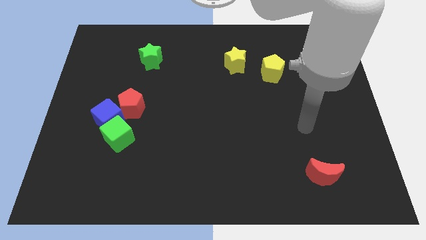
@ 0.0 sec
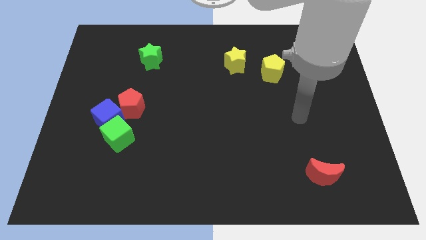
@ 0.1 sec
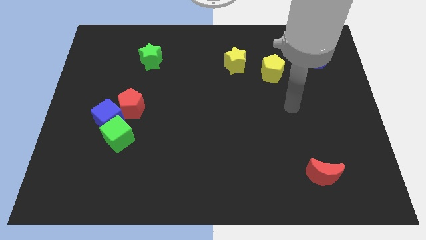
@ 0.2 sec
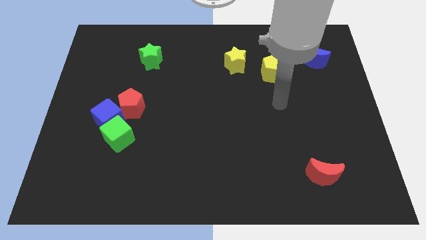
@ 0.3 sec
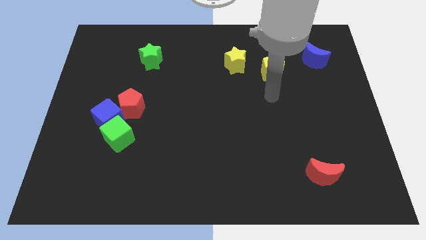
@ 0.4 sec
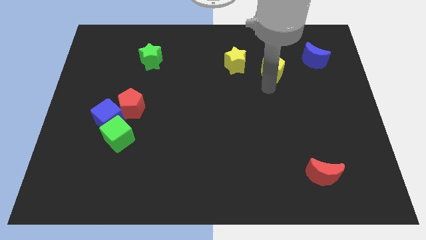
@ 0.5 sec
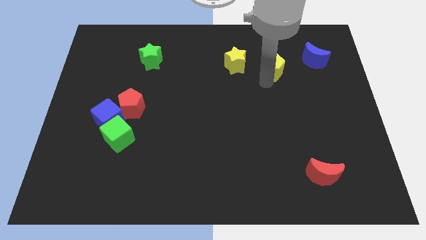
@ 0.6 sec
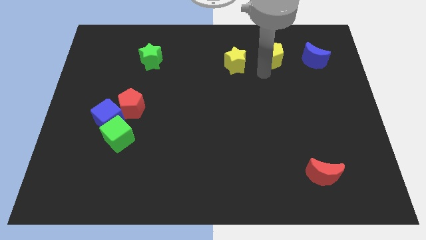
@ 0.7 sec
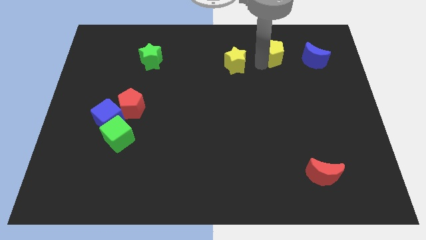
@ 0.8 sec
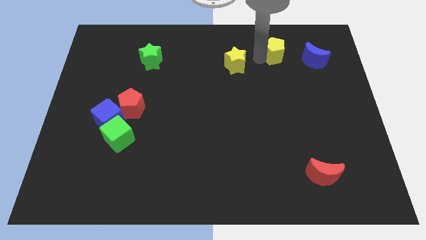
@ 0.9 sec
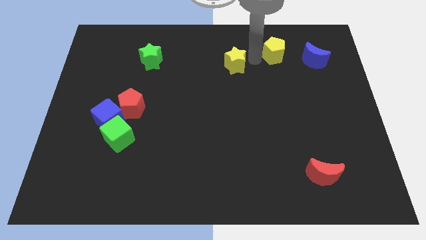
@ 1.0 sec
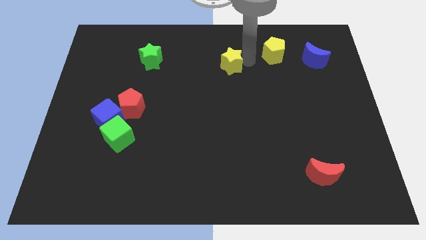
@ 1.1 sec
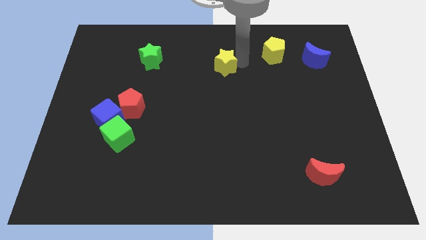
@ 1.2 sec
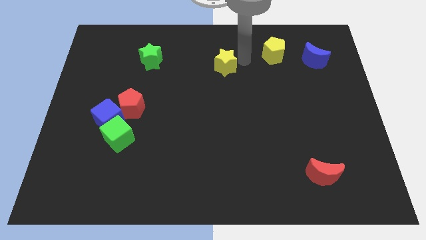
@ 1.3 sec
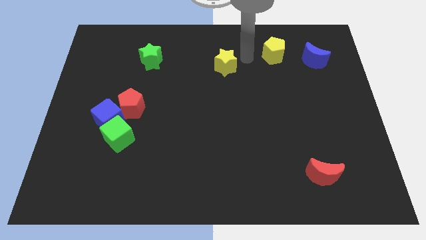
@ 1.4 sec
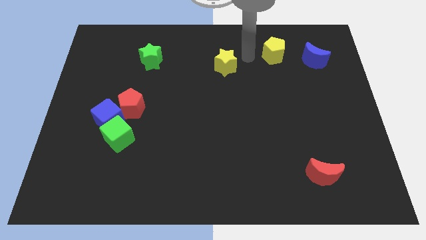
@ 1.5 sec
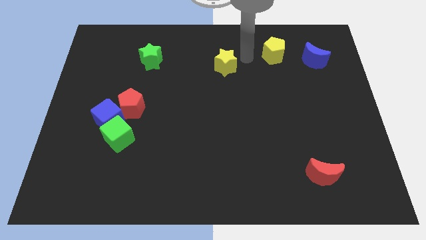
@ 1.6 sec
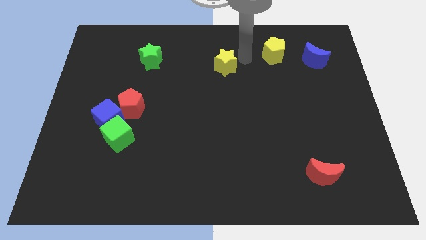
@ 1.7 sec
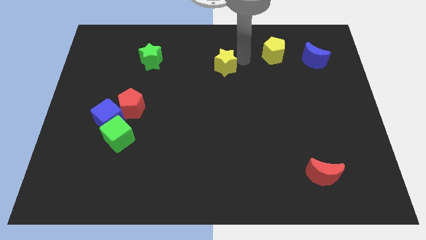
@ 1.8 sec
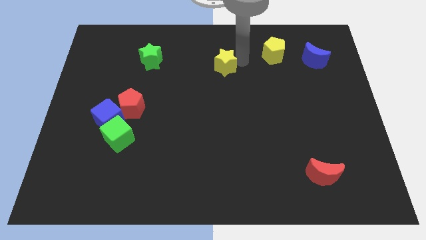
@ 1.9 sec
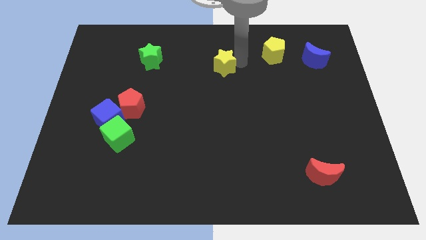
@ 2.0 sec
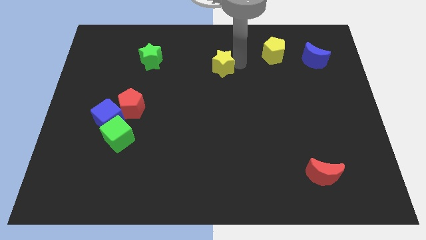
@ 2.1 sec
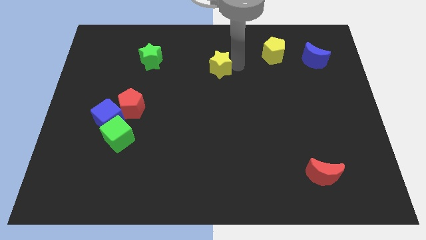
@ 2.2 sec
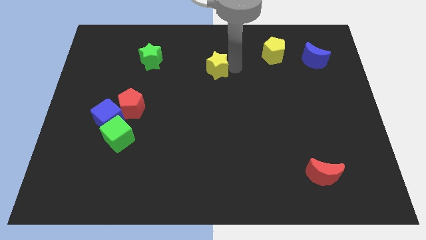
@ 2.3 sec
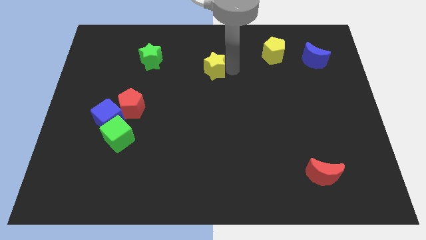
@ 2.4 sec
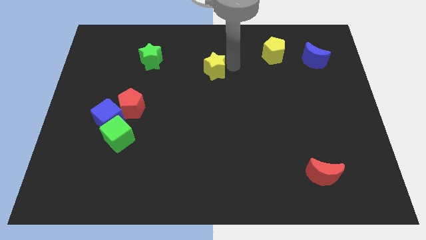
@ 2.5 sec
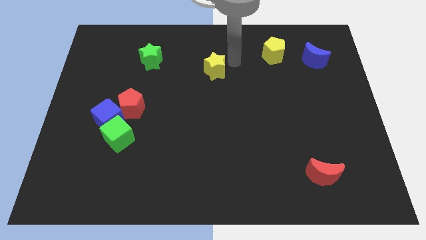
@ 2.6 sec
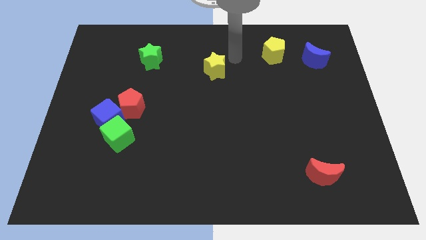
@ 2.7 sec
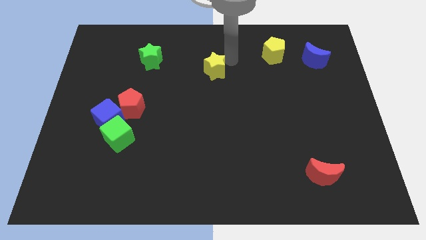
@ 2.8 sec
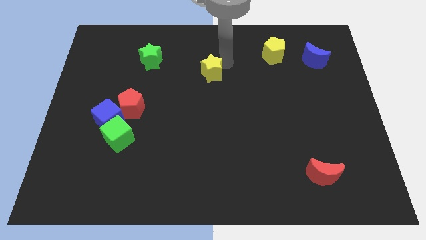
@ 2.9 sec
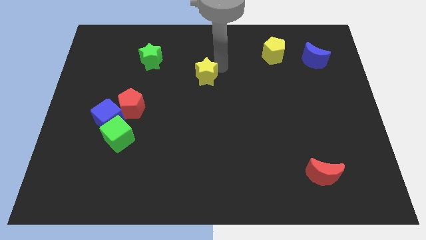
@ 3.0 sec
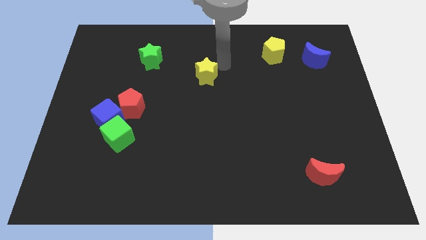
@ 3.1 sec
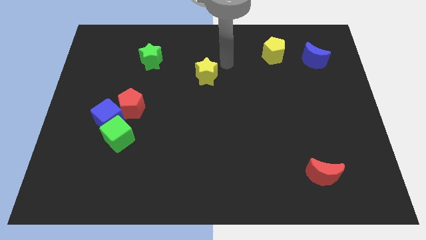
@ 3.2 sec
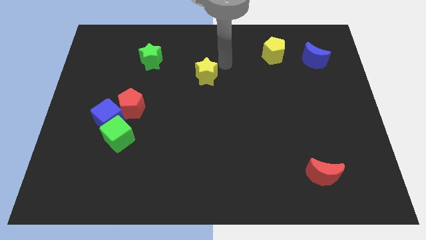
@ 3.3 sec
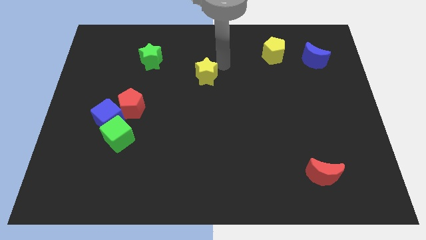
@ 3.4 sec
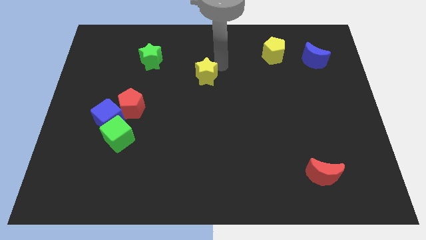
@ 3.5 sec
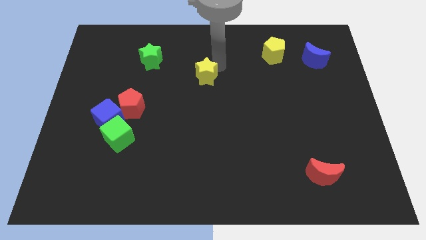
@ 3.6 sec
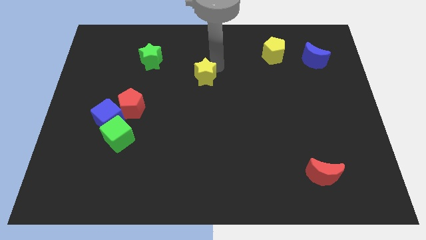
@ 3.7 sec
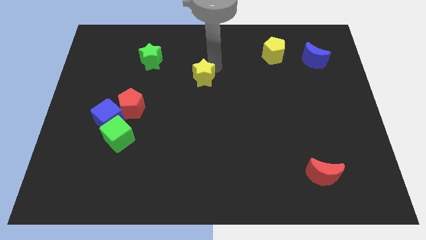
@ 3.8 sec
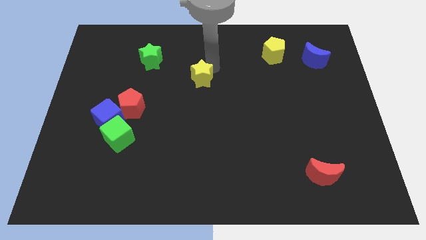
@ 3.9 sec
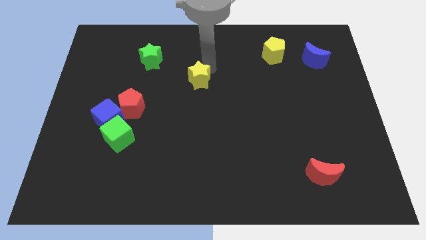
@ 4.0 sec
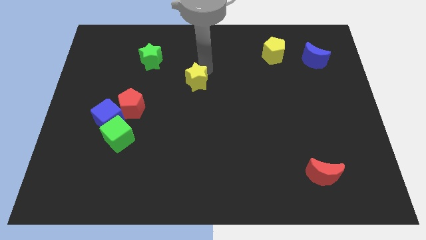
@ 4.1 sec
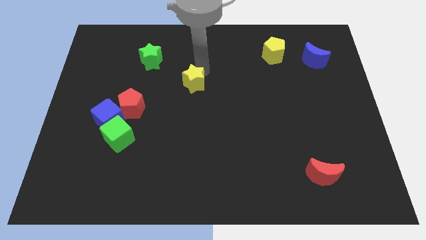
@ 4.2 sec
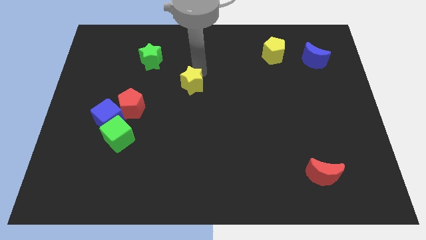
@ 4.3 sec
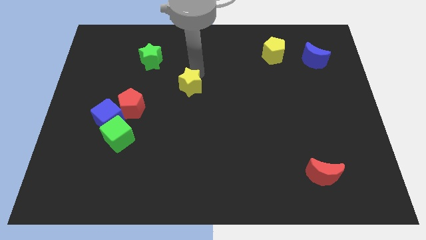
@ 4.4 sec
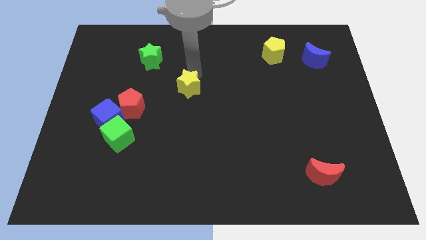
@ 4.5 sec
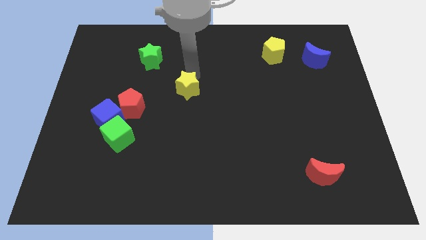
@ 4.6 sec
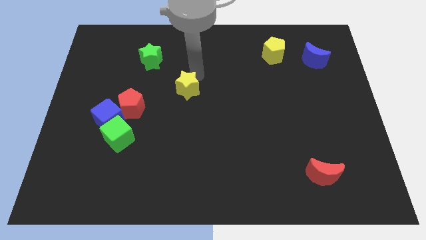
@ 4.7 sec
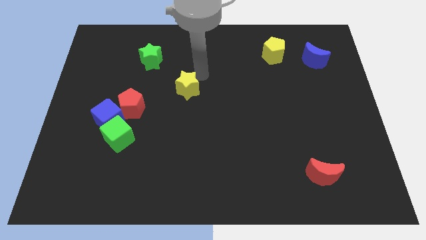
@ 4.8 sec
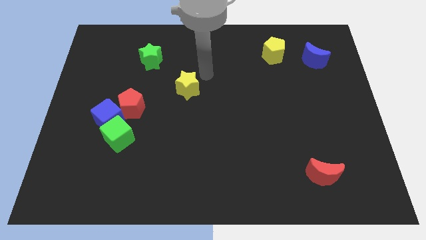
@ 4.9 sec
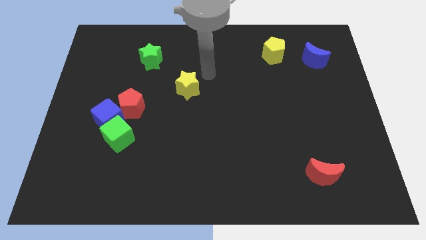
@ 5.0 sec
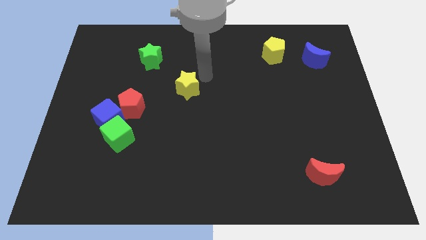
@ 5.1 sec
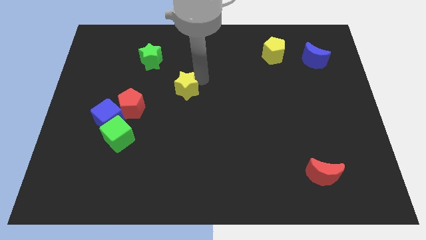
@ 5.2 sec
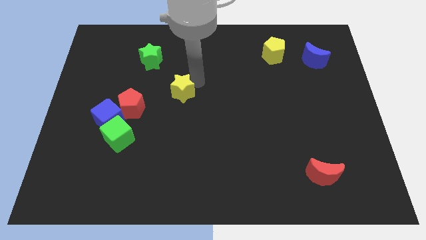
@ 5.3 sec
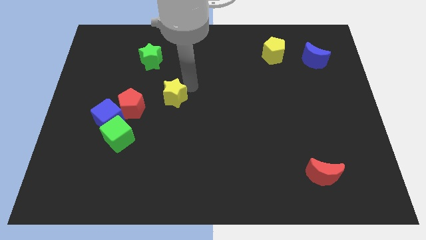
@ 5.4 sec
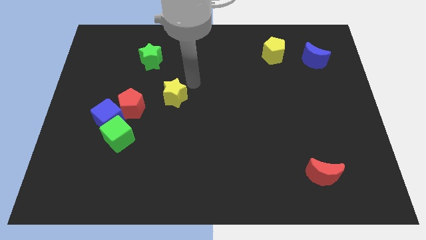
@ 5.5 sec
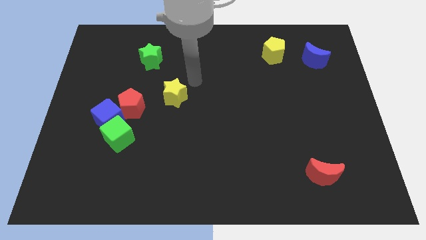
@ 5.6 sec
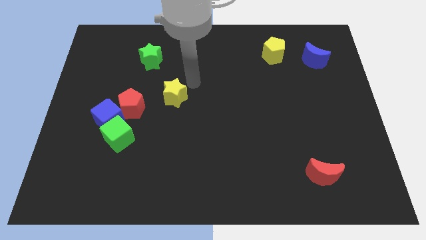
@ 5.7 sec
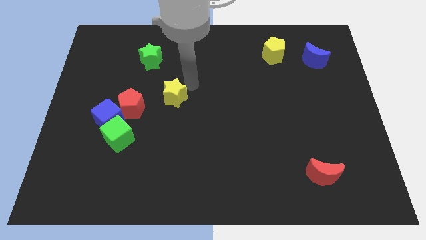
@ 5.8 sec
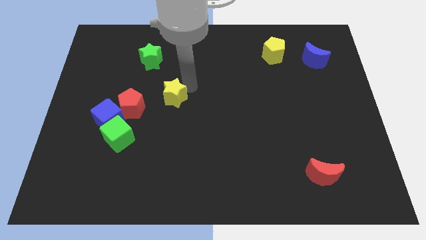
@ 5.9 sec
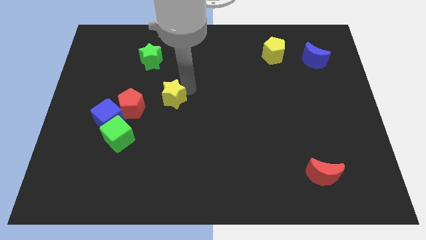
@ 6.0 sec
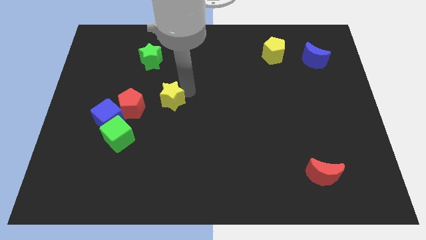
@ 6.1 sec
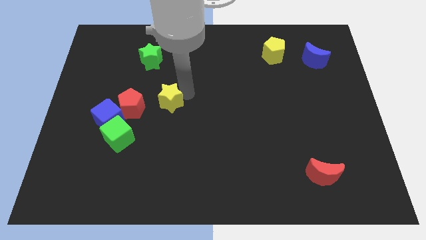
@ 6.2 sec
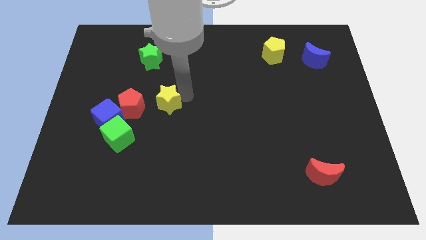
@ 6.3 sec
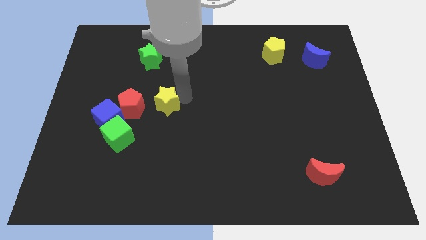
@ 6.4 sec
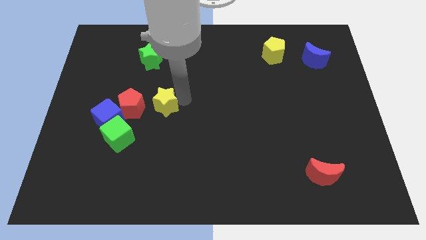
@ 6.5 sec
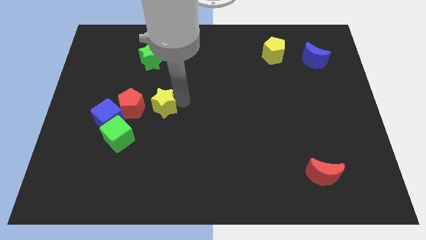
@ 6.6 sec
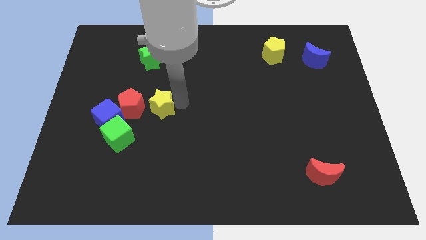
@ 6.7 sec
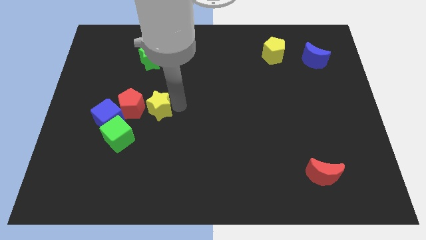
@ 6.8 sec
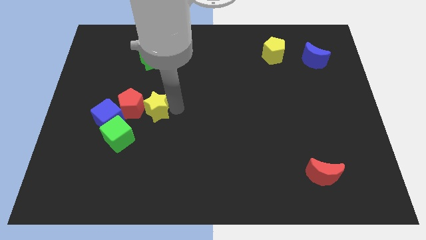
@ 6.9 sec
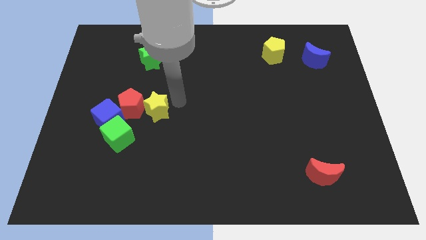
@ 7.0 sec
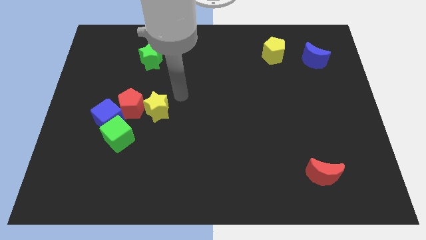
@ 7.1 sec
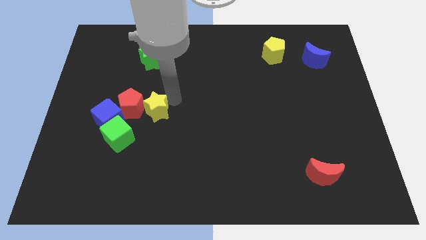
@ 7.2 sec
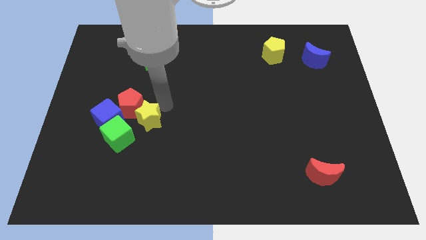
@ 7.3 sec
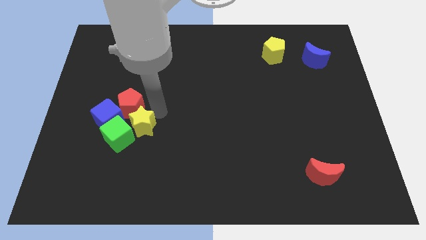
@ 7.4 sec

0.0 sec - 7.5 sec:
move the yellow star towards the green cube
